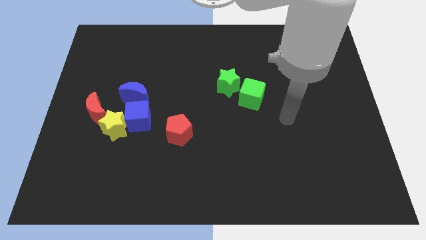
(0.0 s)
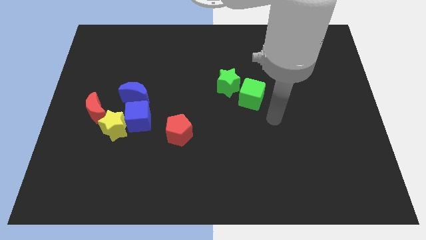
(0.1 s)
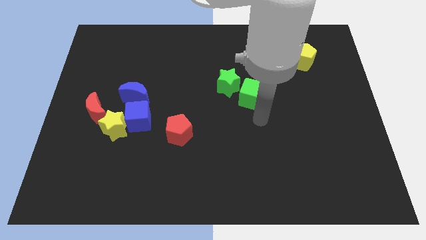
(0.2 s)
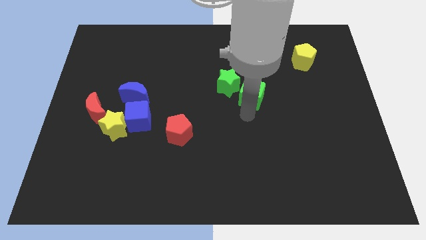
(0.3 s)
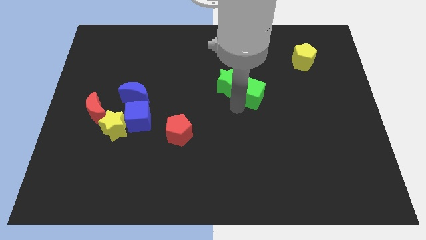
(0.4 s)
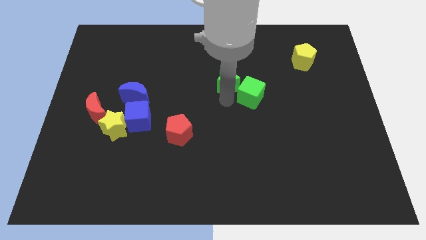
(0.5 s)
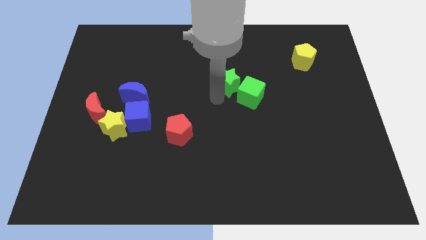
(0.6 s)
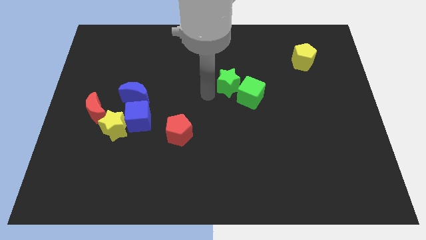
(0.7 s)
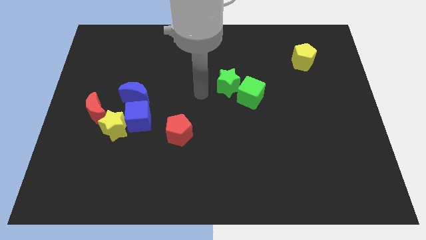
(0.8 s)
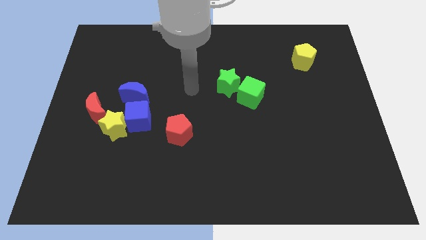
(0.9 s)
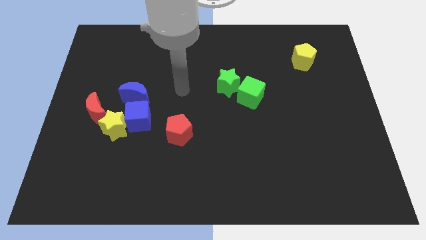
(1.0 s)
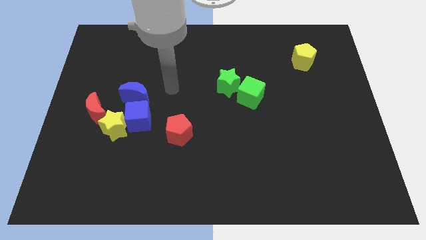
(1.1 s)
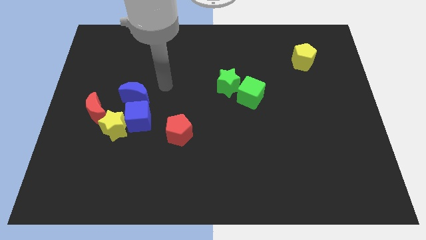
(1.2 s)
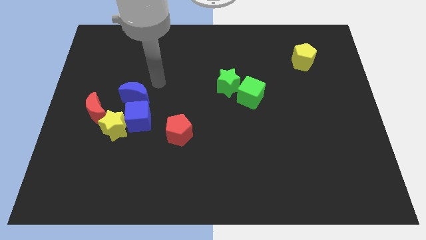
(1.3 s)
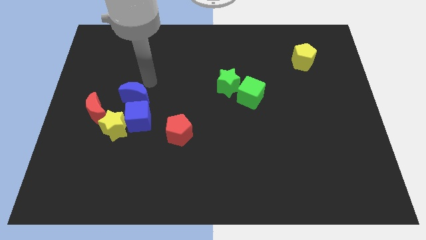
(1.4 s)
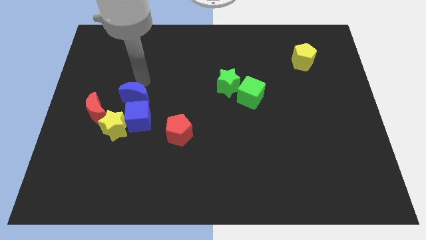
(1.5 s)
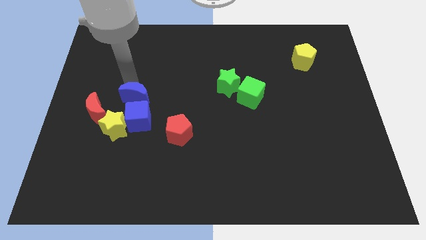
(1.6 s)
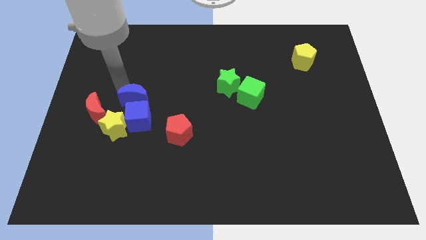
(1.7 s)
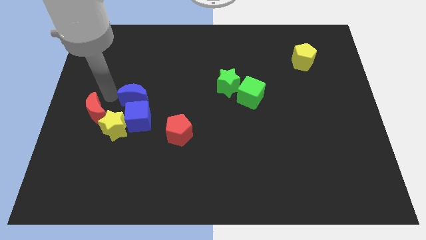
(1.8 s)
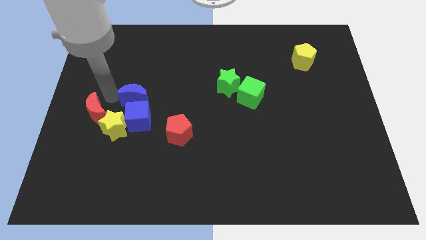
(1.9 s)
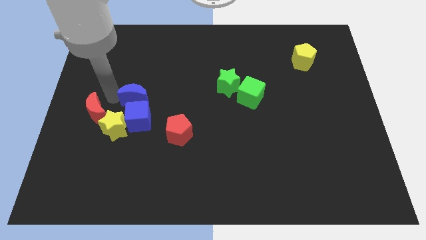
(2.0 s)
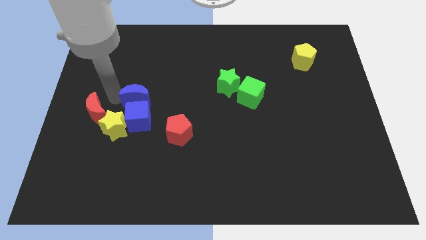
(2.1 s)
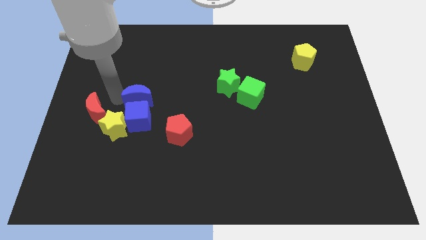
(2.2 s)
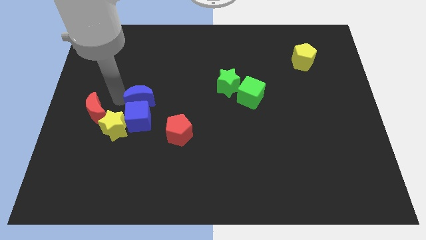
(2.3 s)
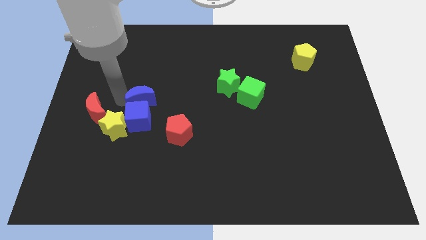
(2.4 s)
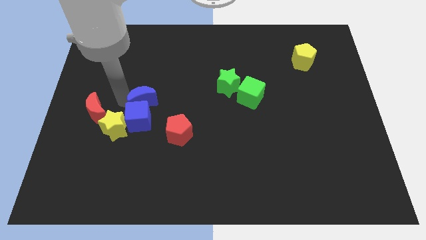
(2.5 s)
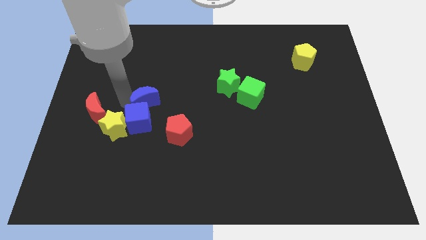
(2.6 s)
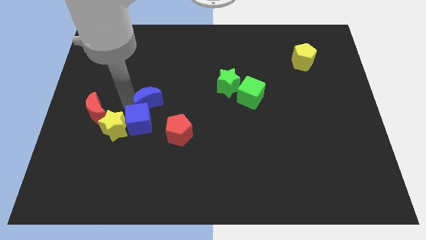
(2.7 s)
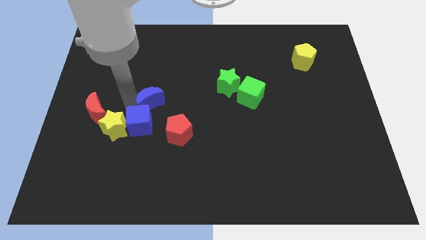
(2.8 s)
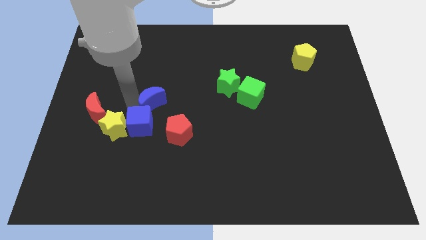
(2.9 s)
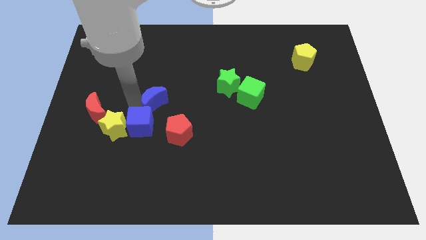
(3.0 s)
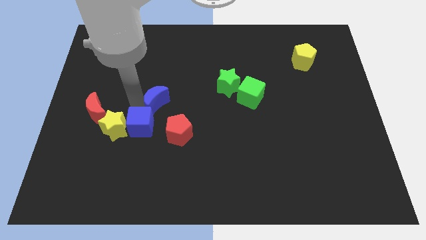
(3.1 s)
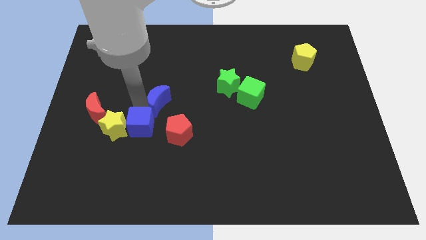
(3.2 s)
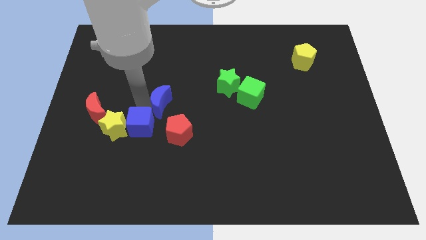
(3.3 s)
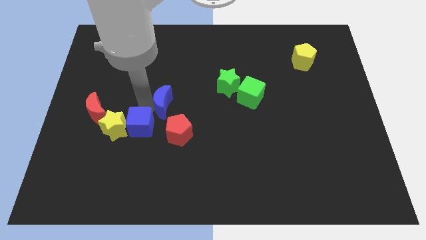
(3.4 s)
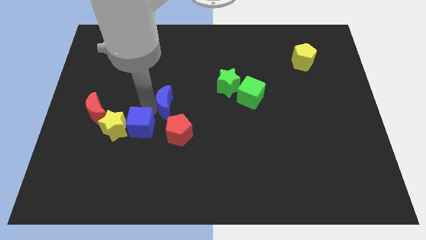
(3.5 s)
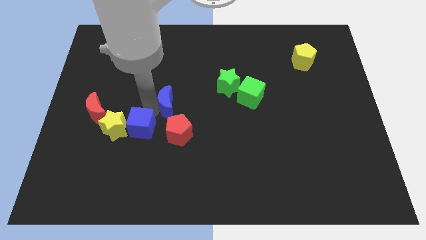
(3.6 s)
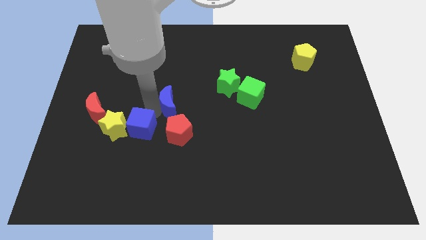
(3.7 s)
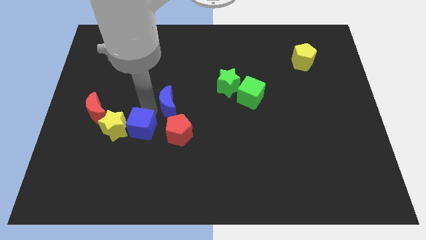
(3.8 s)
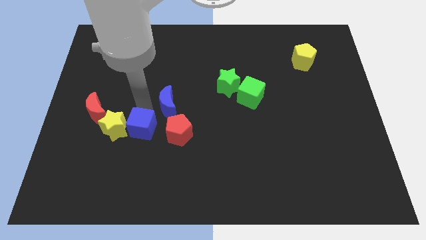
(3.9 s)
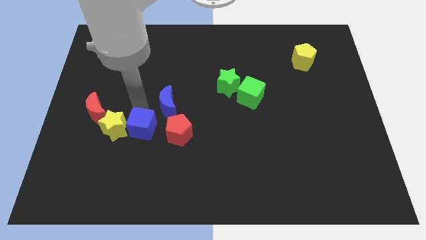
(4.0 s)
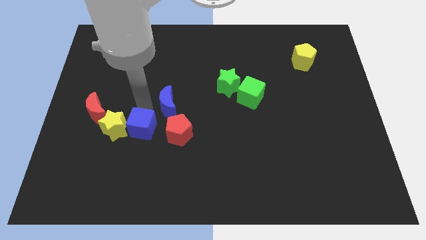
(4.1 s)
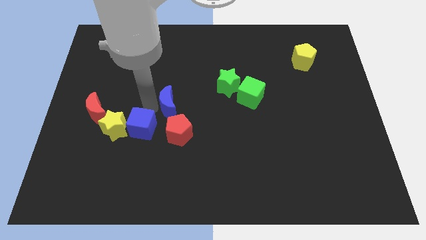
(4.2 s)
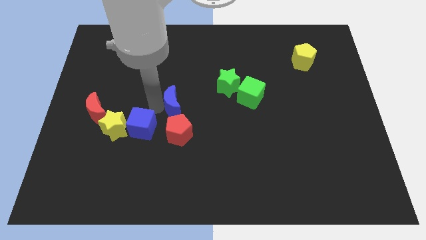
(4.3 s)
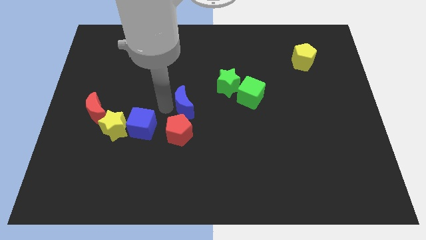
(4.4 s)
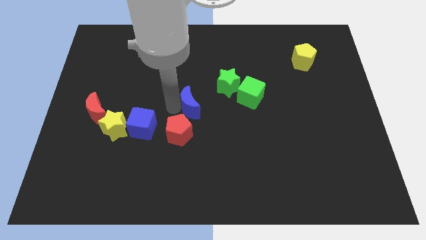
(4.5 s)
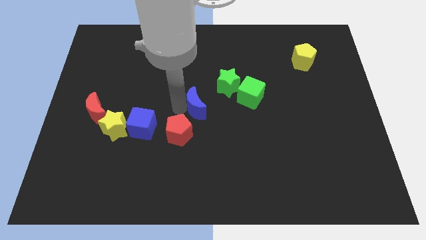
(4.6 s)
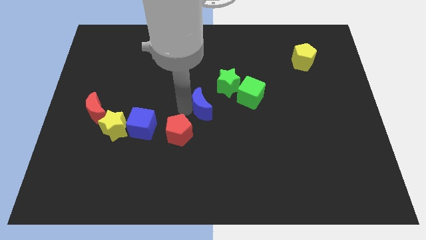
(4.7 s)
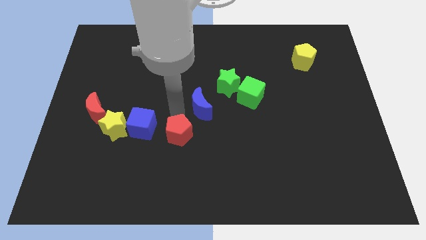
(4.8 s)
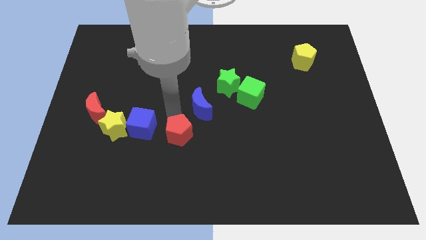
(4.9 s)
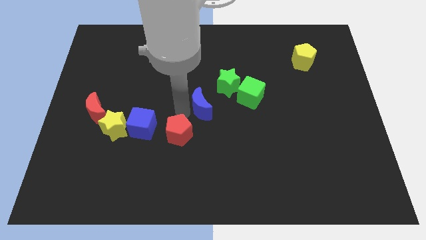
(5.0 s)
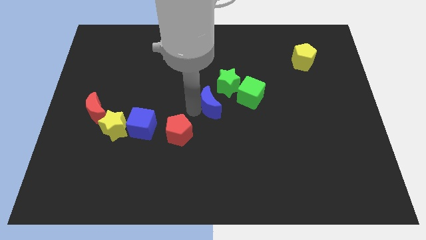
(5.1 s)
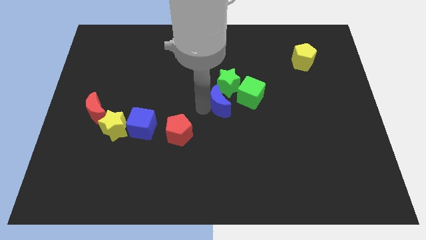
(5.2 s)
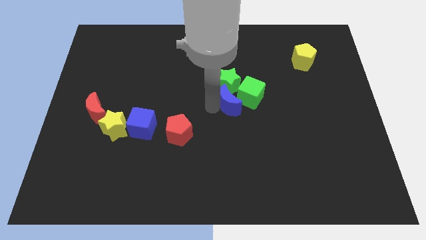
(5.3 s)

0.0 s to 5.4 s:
put the blue moon towards the green cube

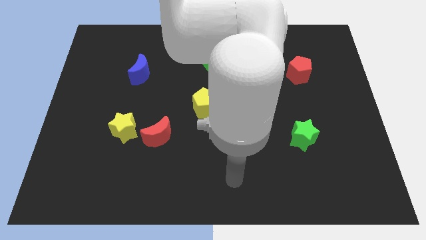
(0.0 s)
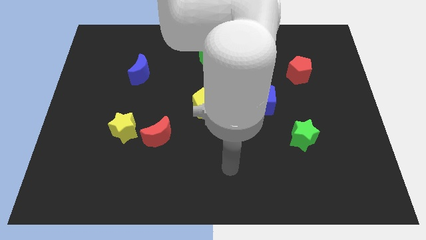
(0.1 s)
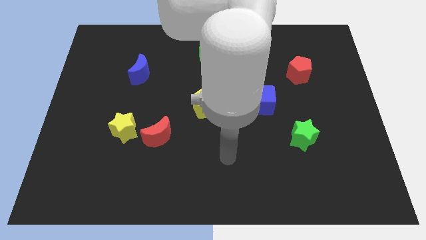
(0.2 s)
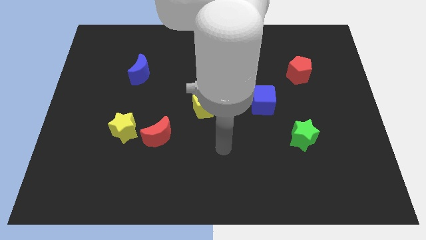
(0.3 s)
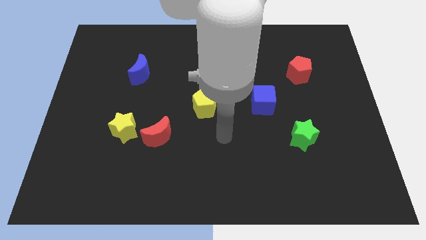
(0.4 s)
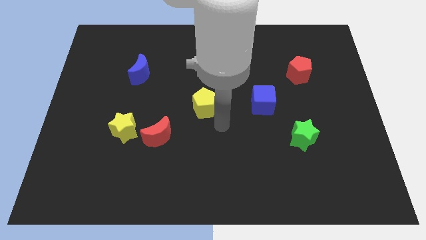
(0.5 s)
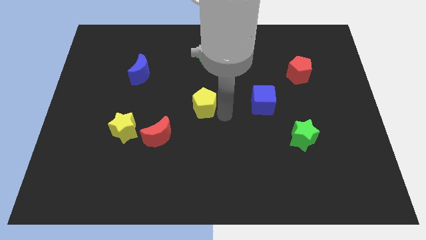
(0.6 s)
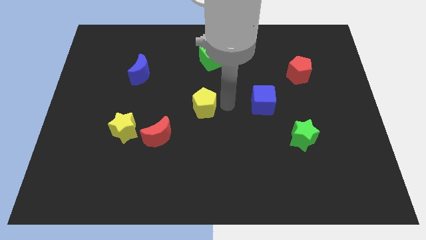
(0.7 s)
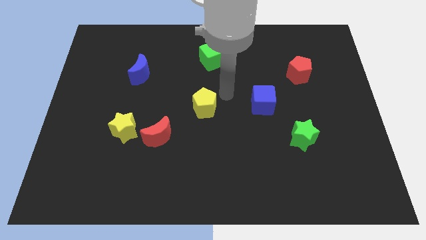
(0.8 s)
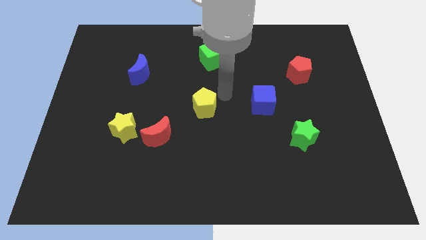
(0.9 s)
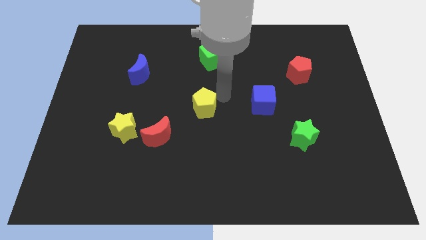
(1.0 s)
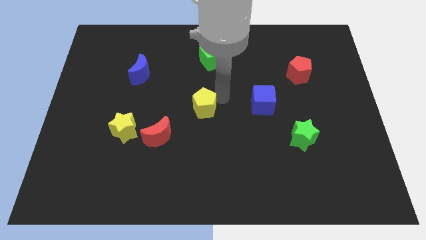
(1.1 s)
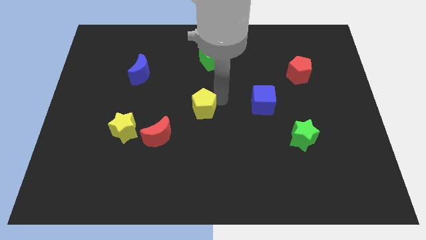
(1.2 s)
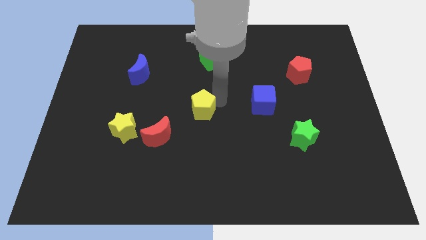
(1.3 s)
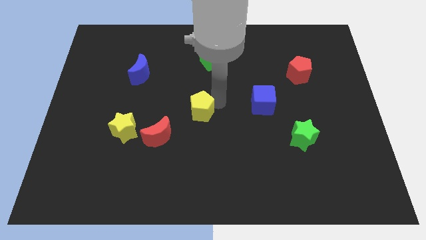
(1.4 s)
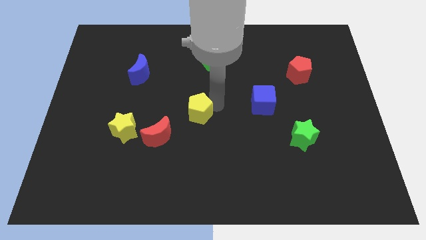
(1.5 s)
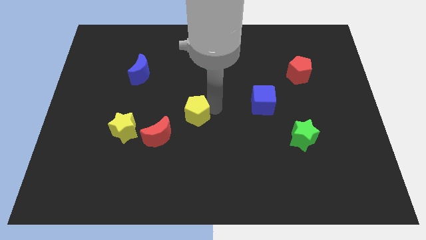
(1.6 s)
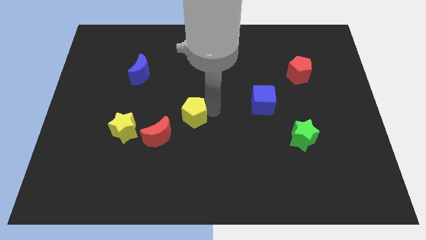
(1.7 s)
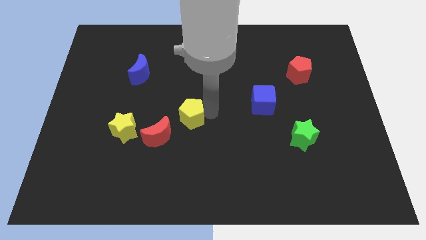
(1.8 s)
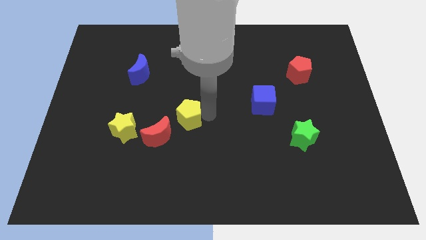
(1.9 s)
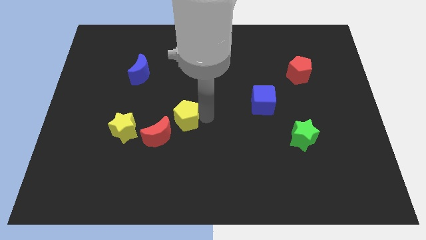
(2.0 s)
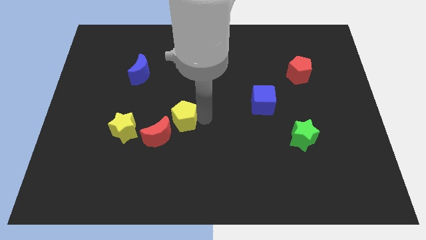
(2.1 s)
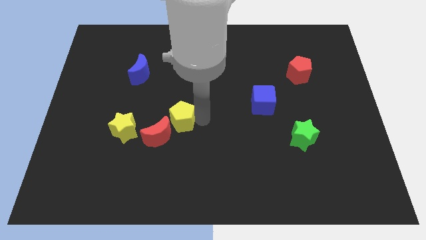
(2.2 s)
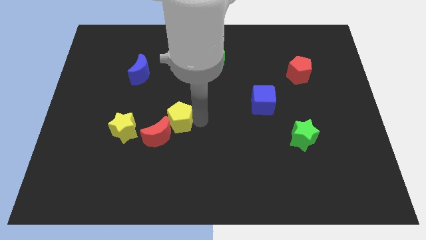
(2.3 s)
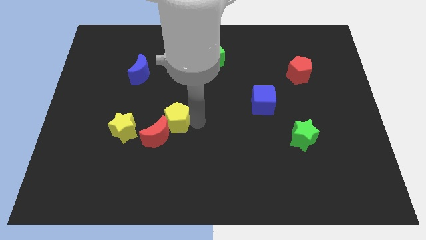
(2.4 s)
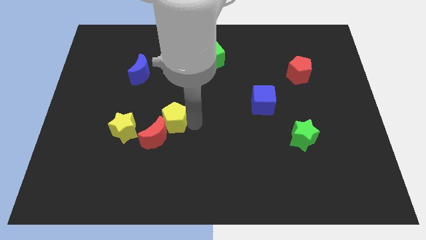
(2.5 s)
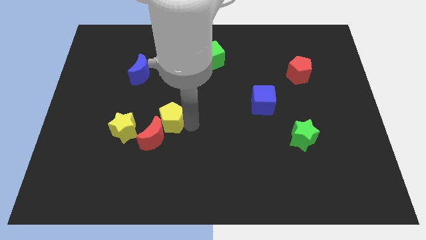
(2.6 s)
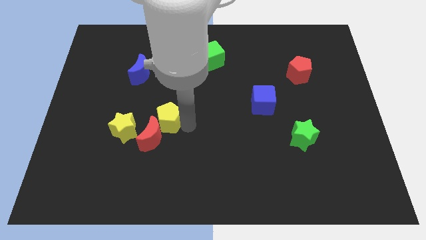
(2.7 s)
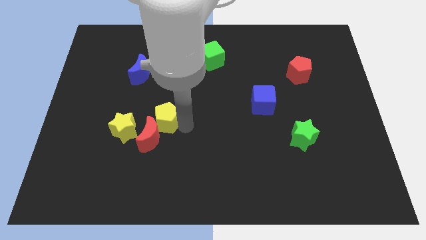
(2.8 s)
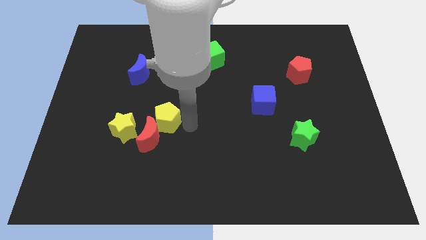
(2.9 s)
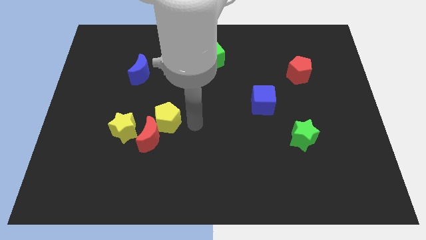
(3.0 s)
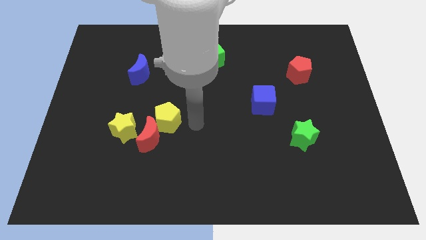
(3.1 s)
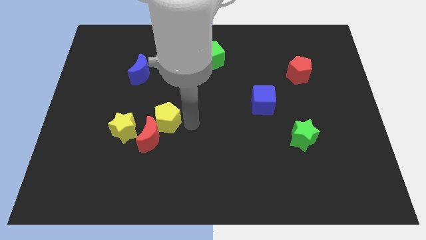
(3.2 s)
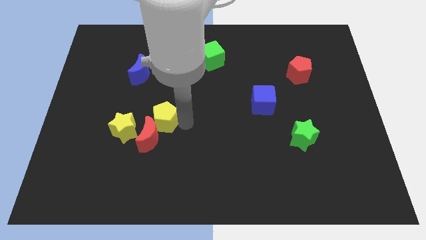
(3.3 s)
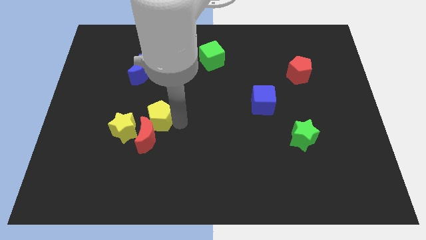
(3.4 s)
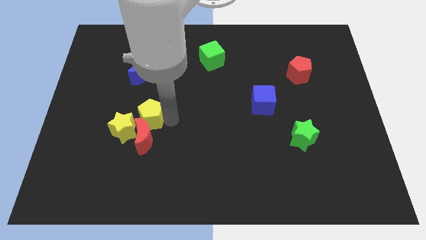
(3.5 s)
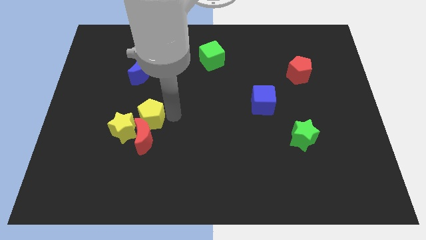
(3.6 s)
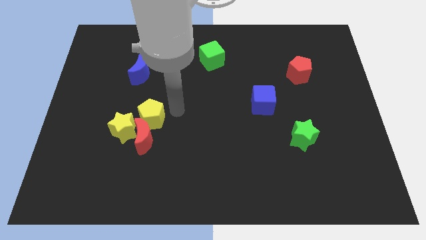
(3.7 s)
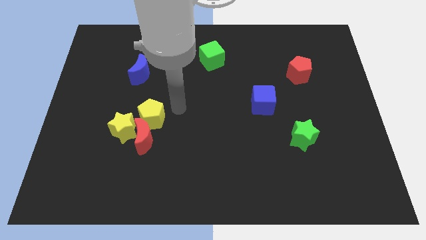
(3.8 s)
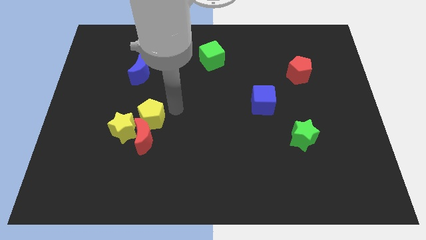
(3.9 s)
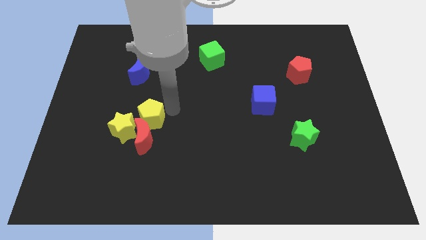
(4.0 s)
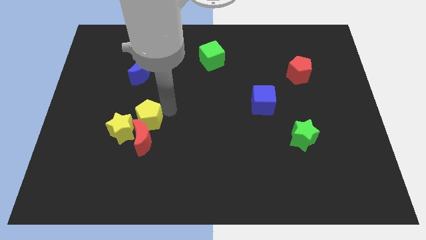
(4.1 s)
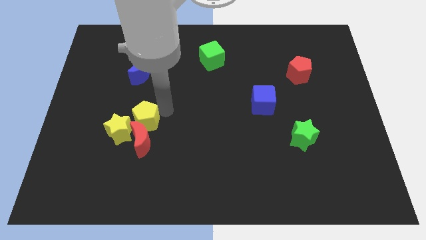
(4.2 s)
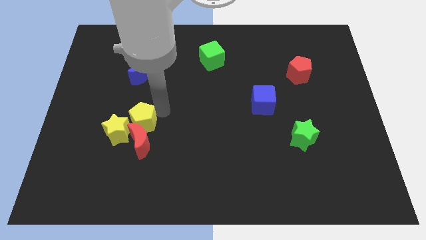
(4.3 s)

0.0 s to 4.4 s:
slide the yellow pentagon to the yellow star
